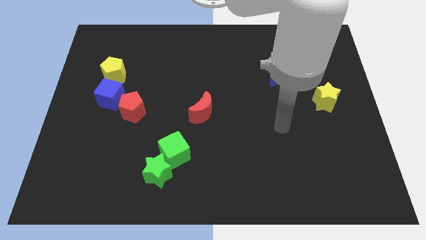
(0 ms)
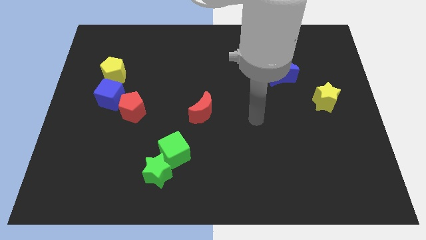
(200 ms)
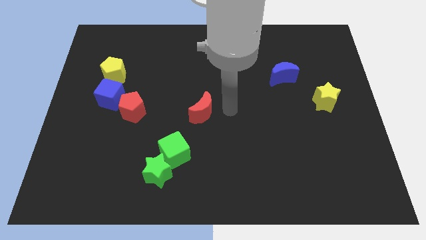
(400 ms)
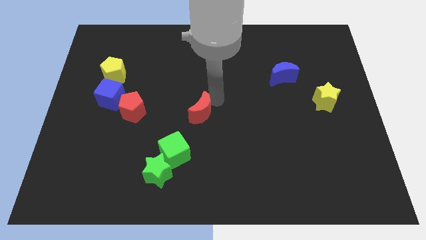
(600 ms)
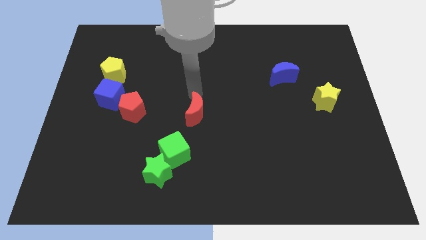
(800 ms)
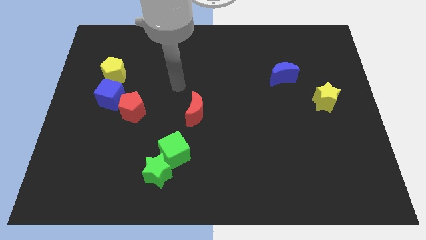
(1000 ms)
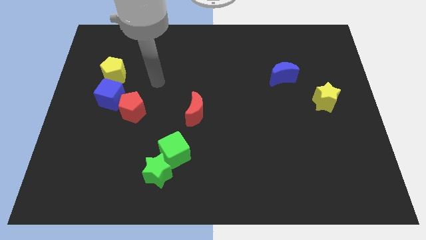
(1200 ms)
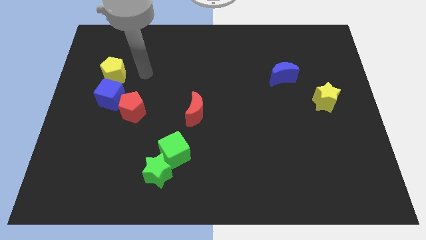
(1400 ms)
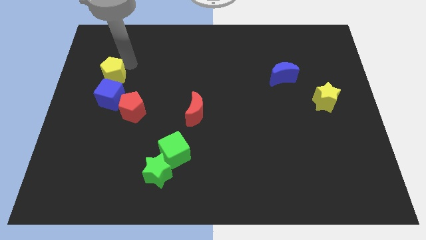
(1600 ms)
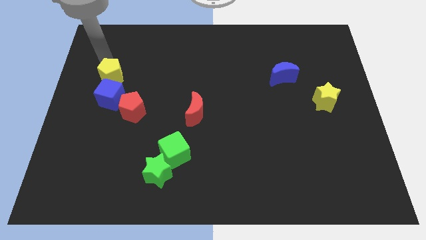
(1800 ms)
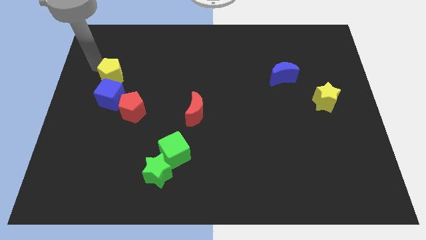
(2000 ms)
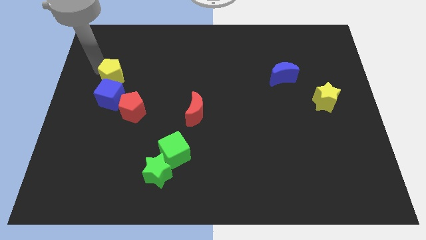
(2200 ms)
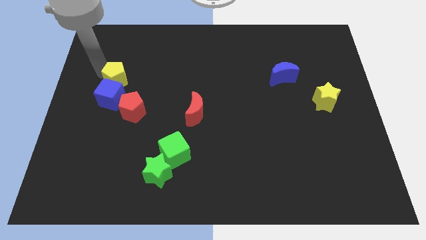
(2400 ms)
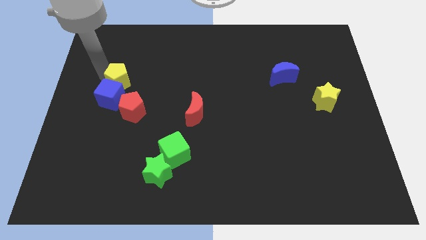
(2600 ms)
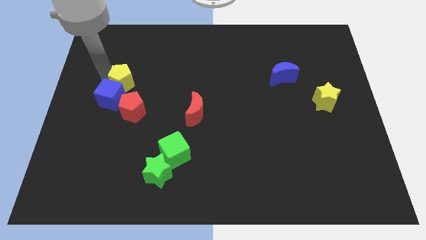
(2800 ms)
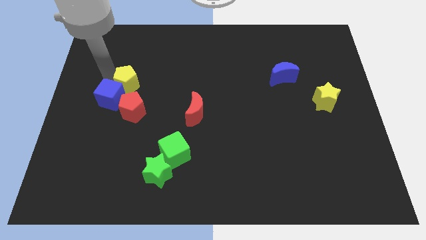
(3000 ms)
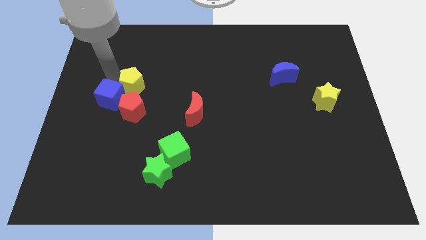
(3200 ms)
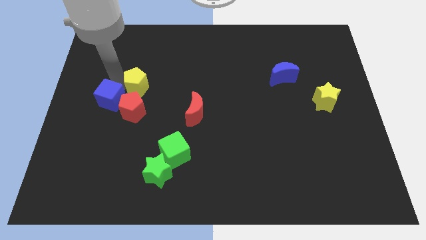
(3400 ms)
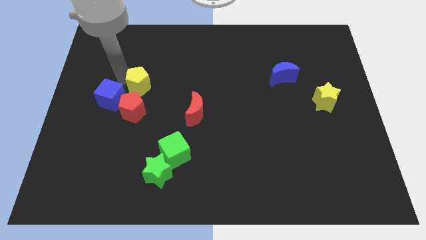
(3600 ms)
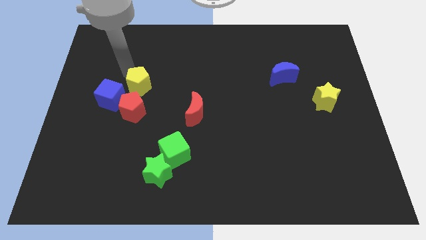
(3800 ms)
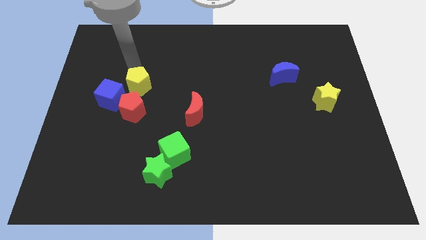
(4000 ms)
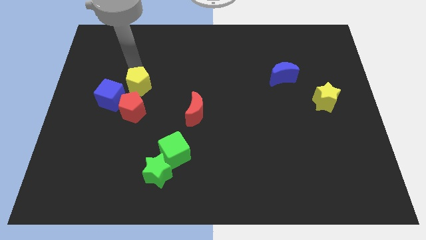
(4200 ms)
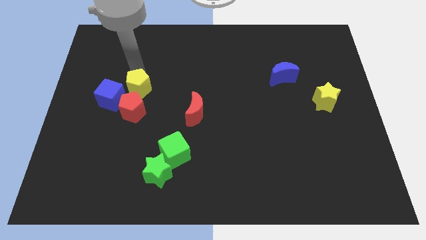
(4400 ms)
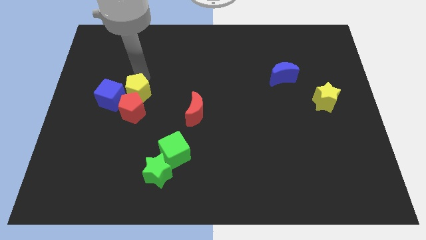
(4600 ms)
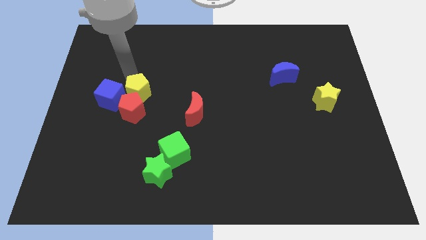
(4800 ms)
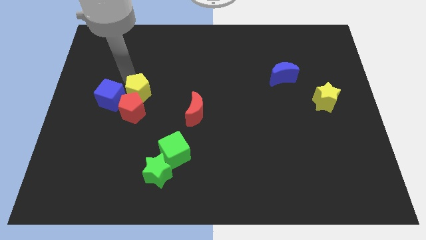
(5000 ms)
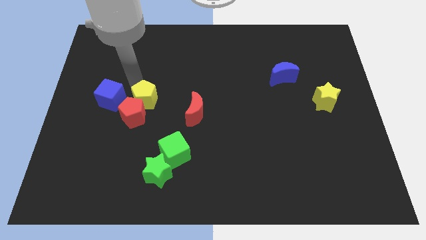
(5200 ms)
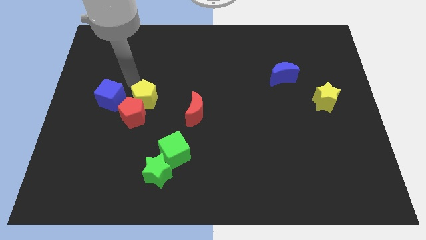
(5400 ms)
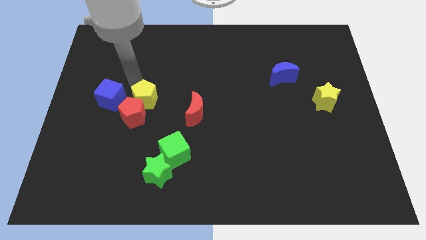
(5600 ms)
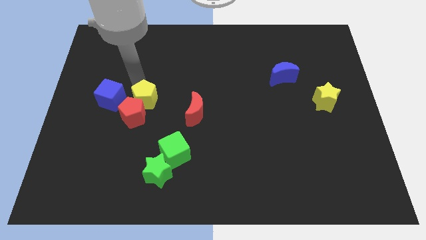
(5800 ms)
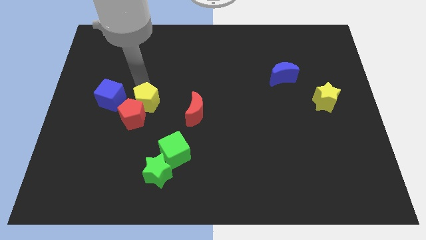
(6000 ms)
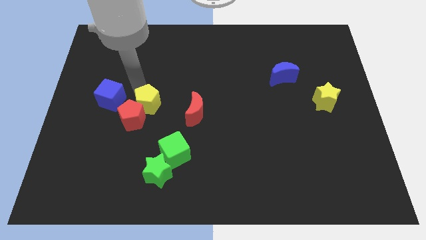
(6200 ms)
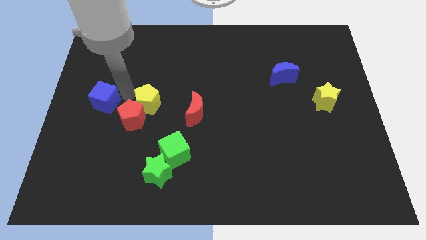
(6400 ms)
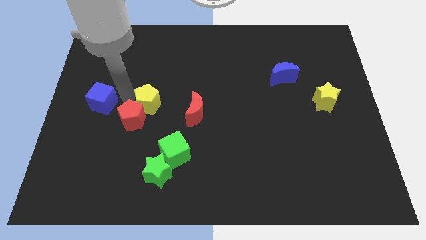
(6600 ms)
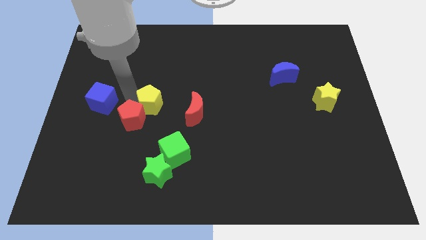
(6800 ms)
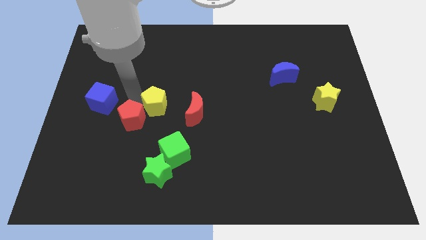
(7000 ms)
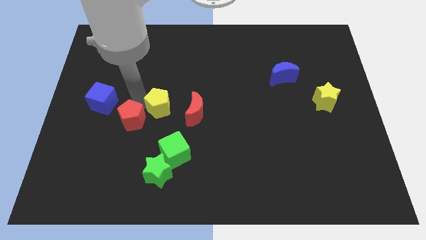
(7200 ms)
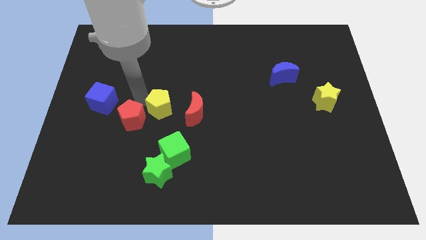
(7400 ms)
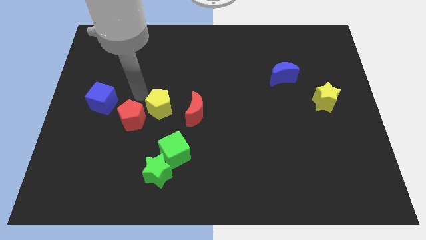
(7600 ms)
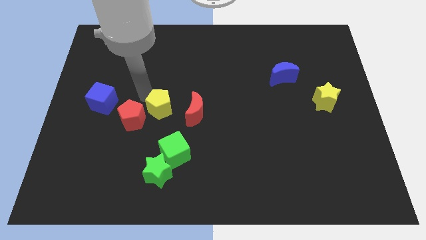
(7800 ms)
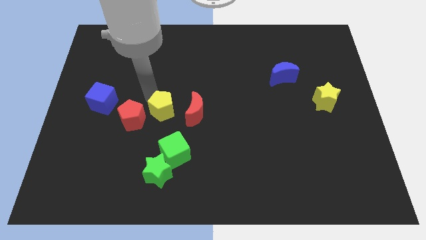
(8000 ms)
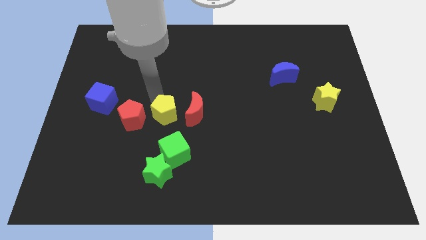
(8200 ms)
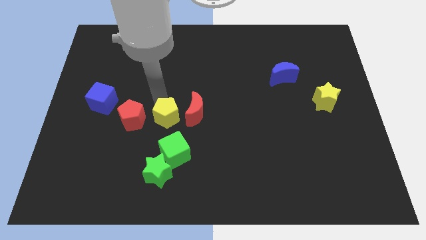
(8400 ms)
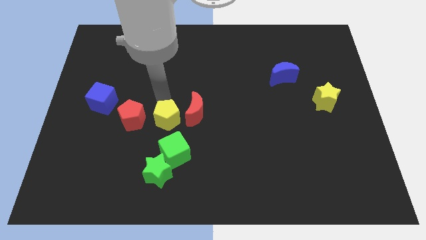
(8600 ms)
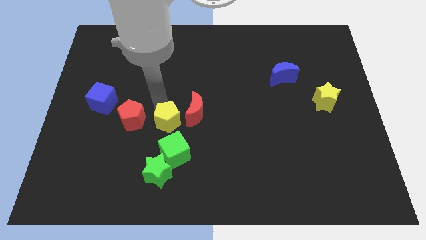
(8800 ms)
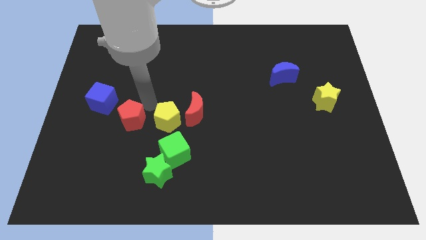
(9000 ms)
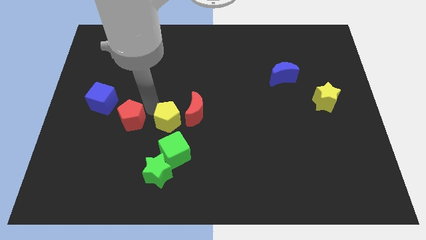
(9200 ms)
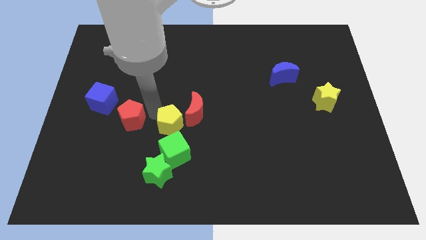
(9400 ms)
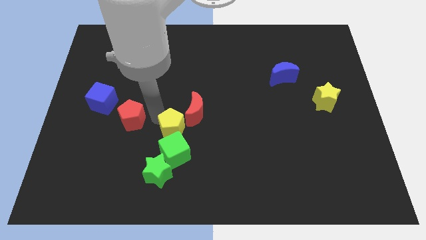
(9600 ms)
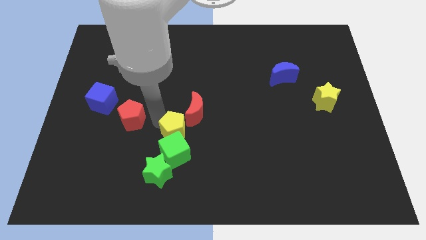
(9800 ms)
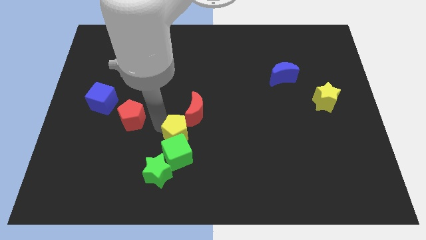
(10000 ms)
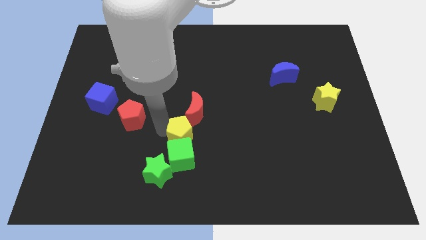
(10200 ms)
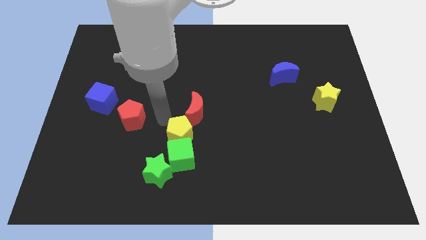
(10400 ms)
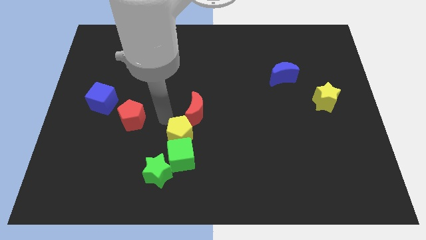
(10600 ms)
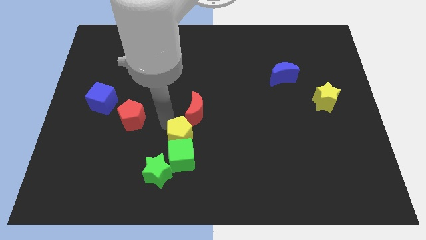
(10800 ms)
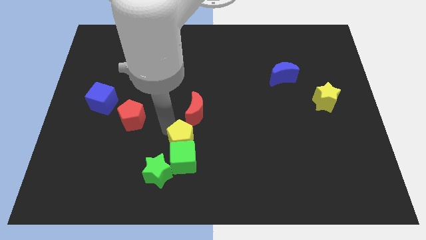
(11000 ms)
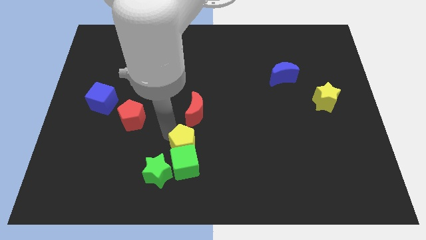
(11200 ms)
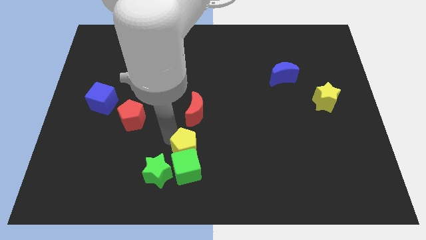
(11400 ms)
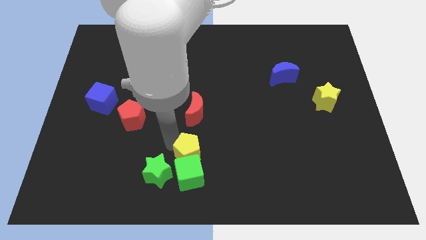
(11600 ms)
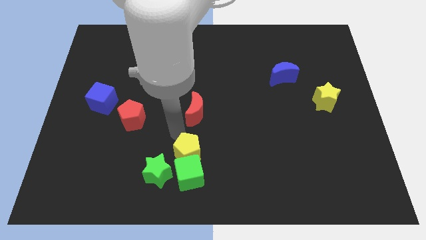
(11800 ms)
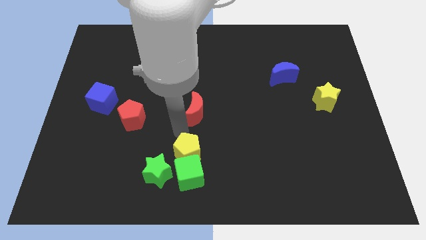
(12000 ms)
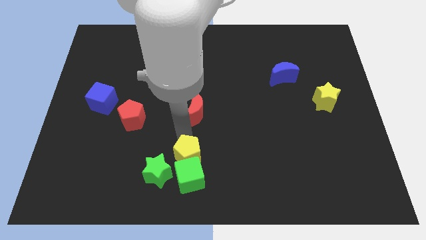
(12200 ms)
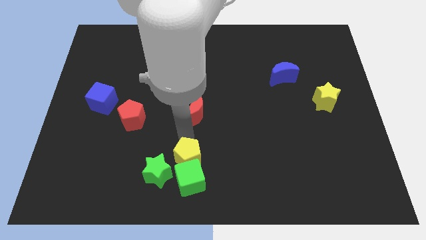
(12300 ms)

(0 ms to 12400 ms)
put the yellow pentagon to the bottom
